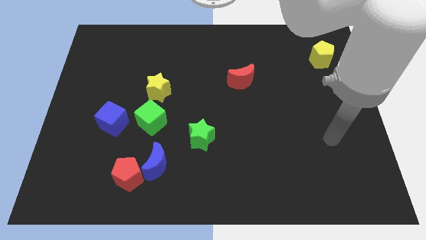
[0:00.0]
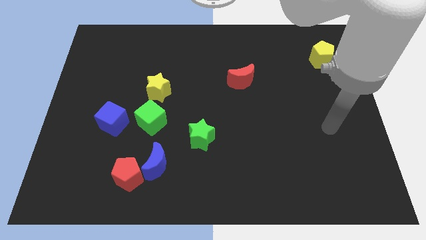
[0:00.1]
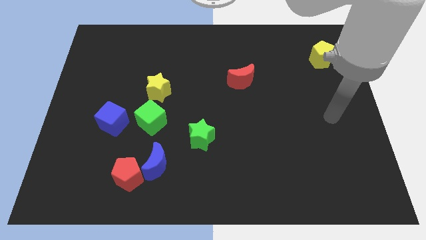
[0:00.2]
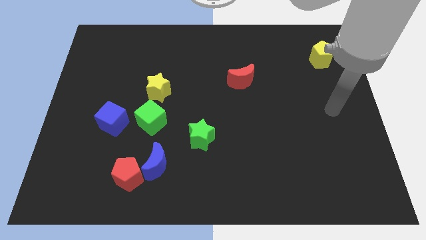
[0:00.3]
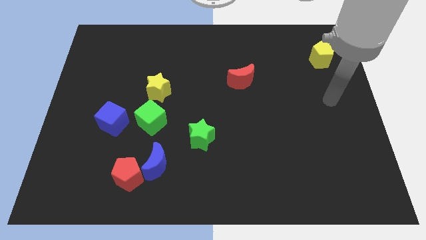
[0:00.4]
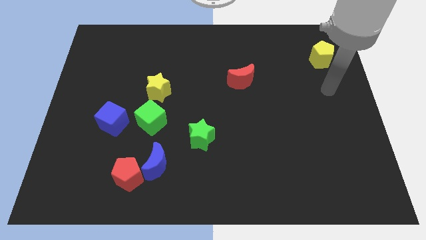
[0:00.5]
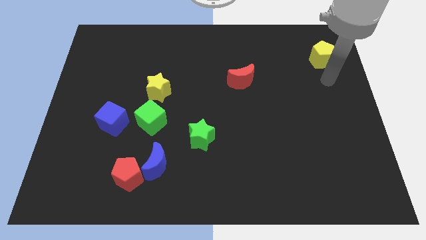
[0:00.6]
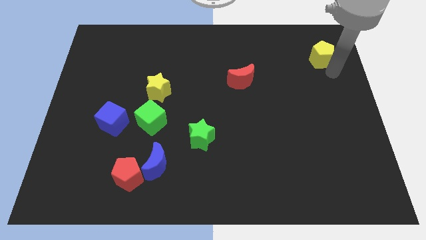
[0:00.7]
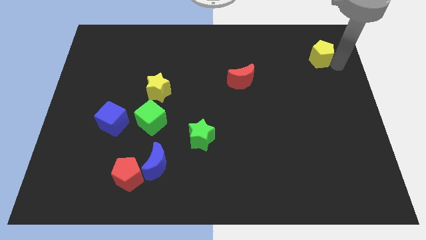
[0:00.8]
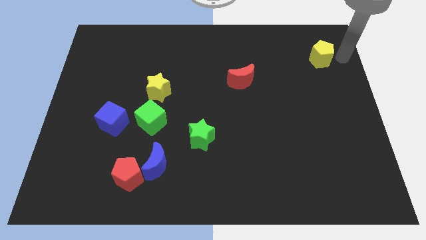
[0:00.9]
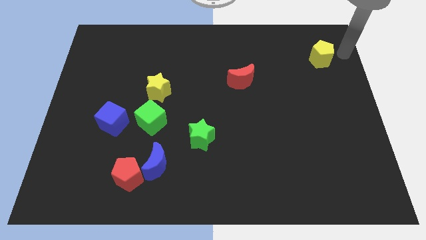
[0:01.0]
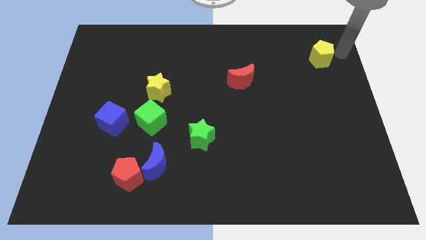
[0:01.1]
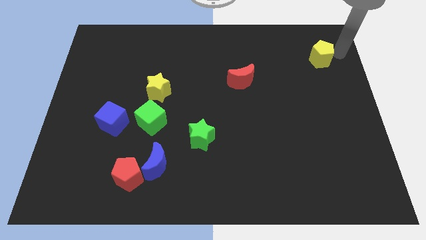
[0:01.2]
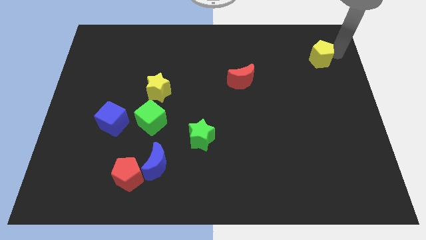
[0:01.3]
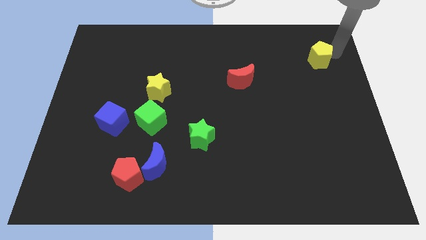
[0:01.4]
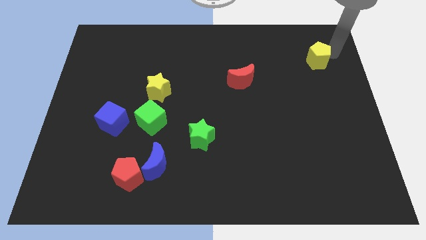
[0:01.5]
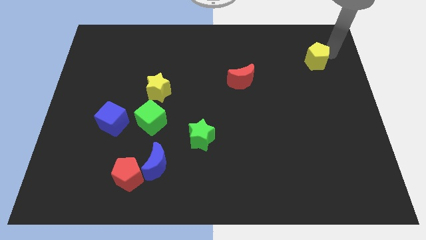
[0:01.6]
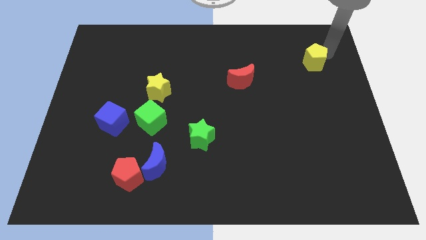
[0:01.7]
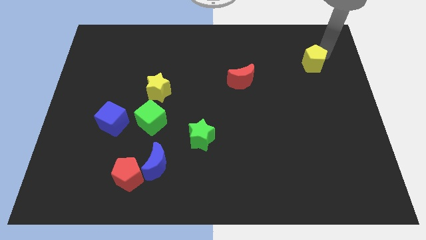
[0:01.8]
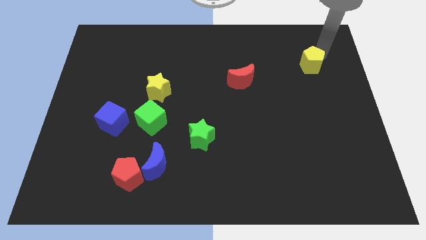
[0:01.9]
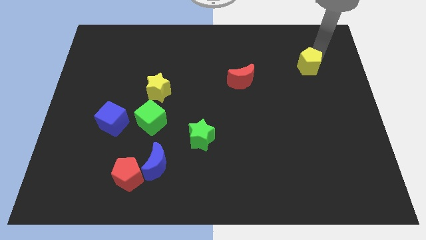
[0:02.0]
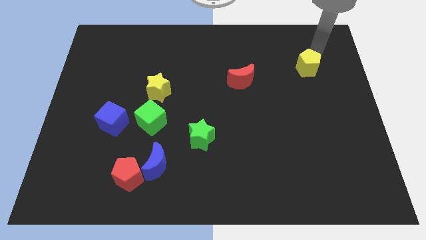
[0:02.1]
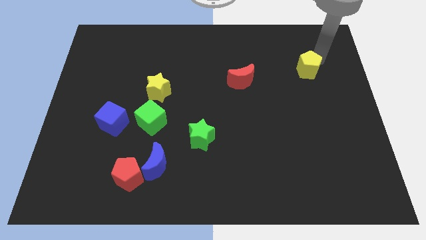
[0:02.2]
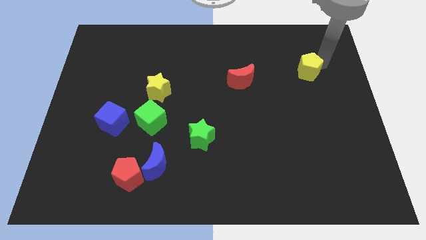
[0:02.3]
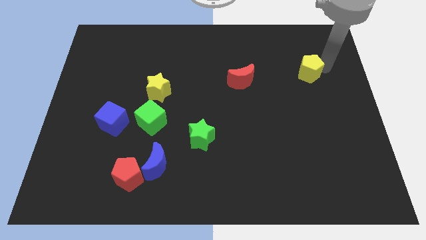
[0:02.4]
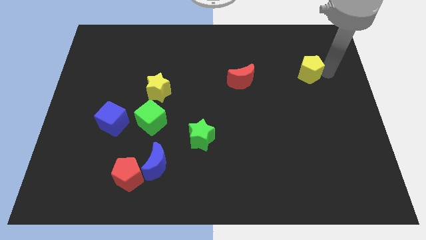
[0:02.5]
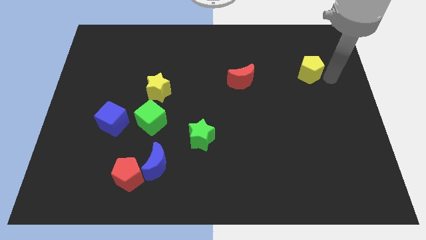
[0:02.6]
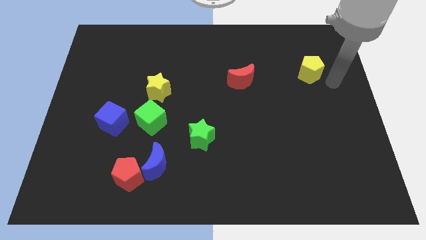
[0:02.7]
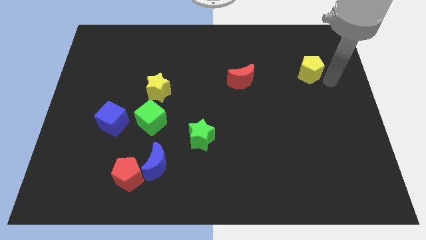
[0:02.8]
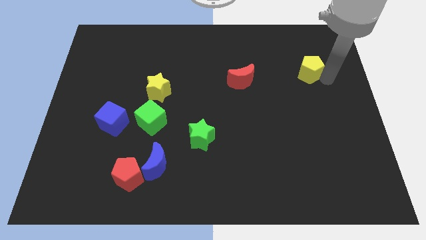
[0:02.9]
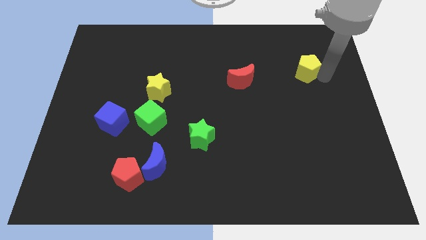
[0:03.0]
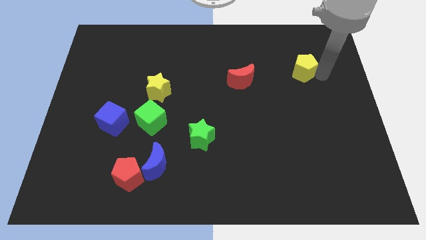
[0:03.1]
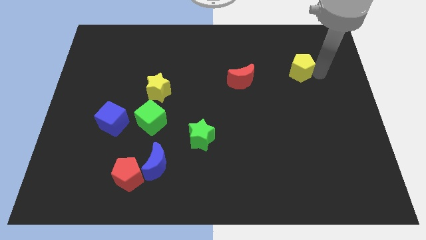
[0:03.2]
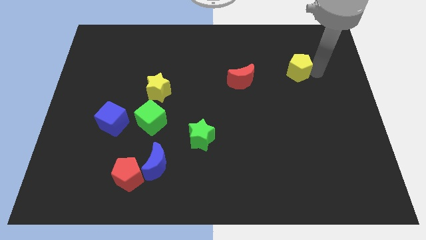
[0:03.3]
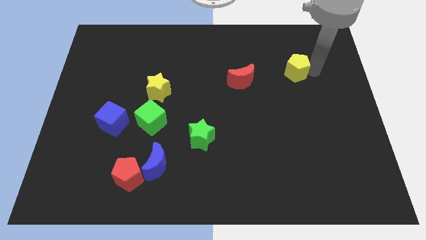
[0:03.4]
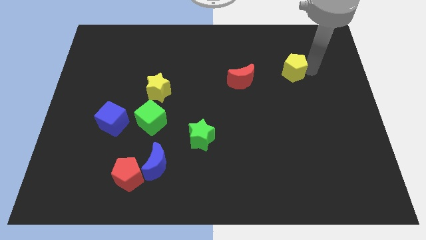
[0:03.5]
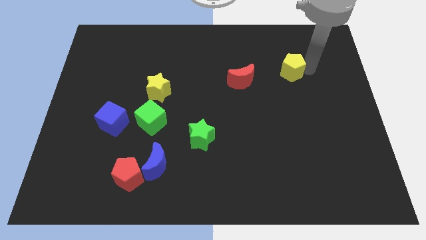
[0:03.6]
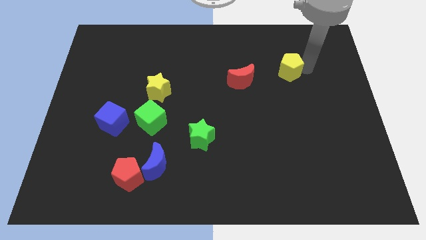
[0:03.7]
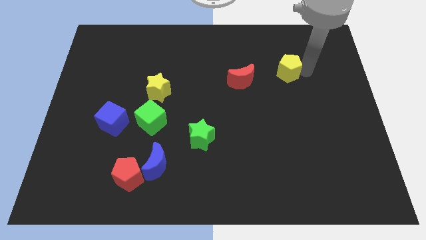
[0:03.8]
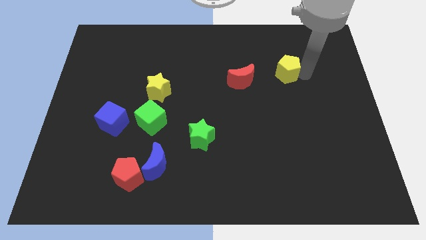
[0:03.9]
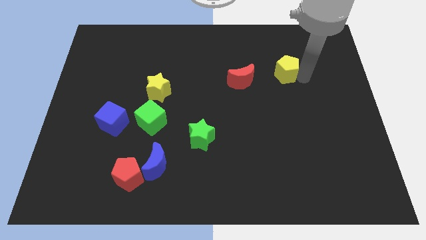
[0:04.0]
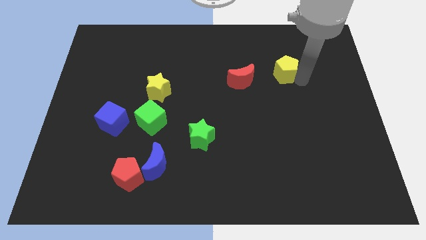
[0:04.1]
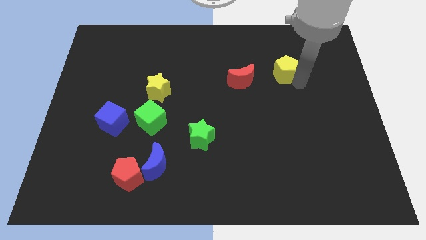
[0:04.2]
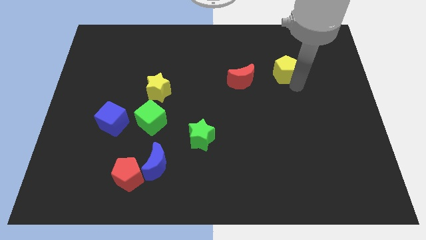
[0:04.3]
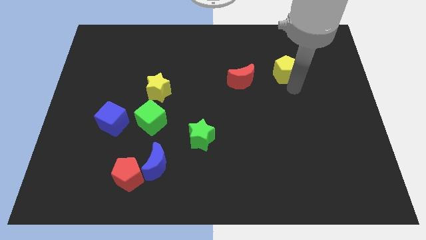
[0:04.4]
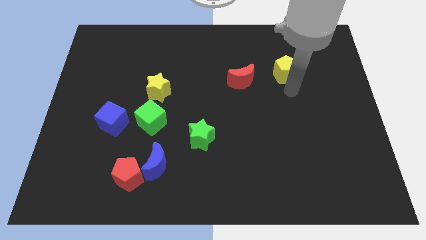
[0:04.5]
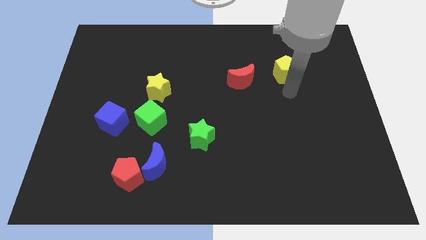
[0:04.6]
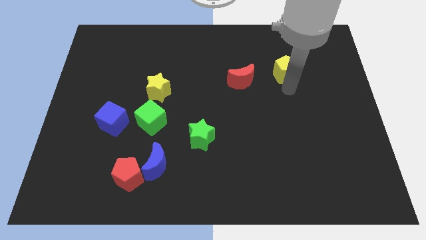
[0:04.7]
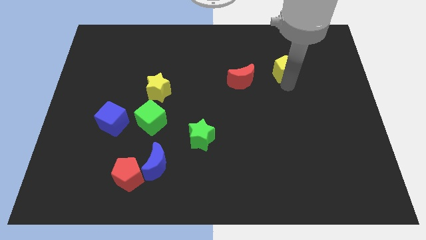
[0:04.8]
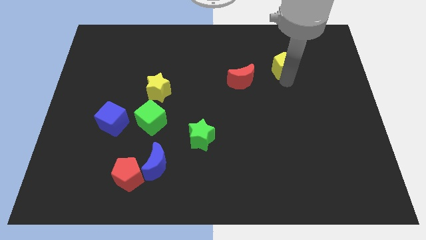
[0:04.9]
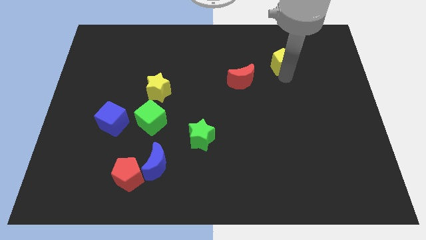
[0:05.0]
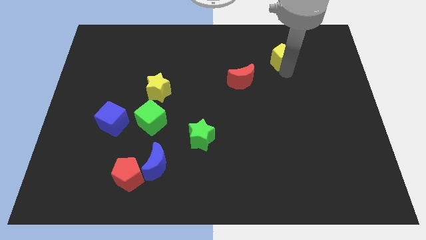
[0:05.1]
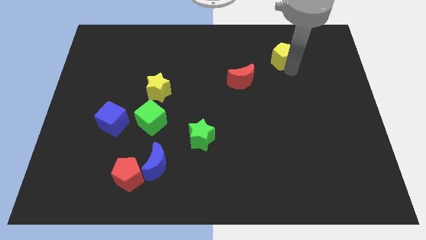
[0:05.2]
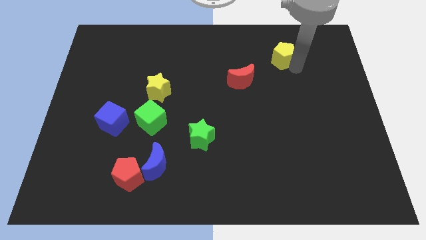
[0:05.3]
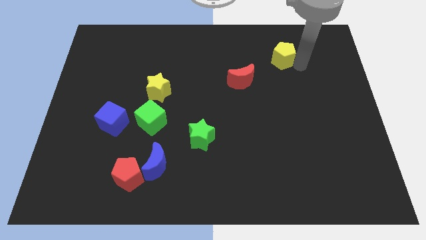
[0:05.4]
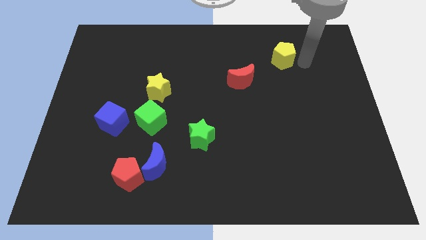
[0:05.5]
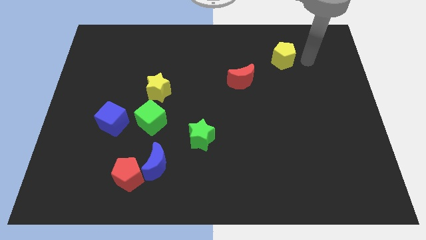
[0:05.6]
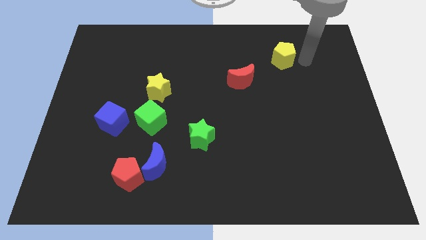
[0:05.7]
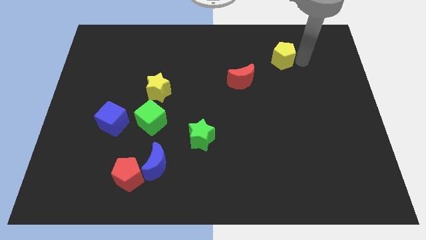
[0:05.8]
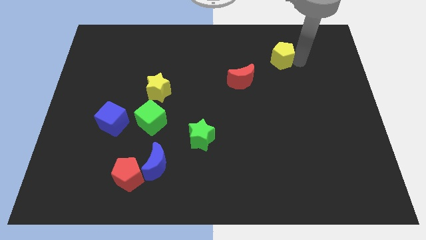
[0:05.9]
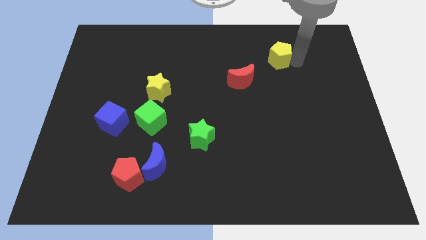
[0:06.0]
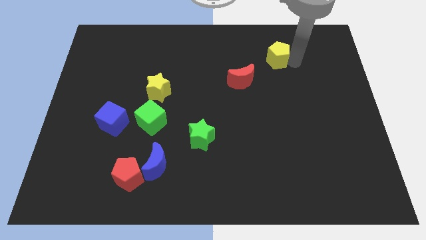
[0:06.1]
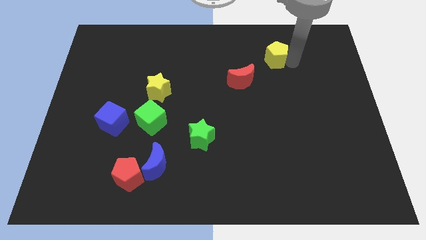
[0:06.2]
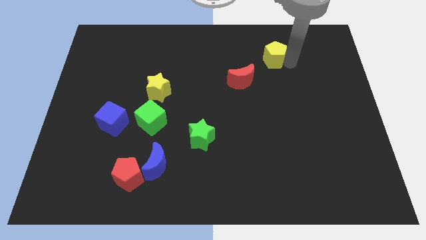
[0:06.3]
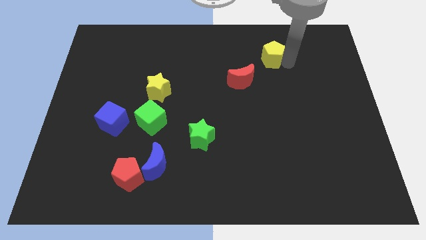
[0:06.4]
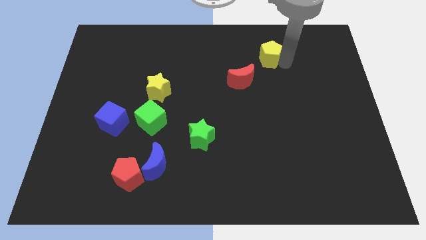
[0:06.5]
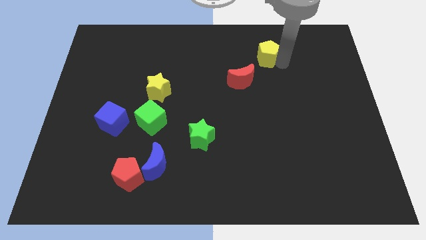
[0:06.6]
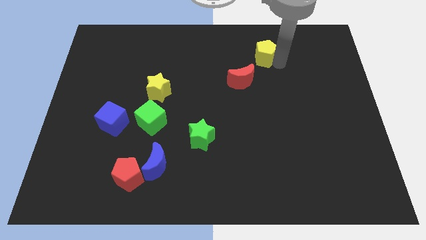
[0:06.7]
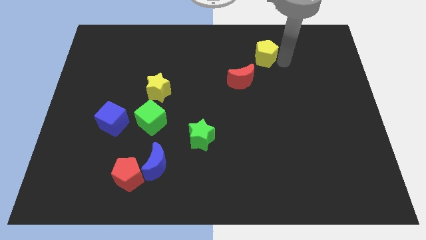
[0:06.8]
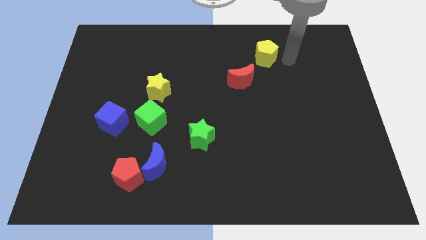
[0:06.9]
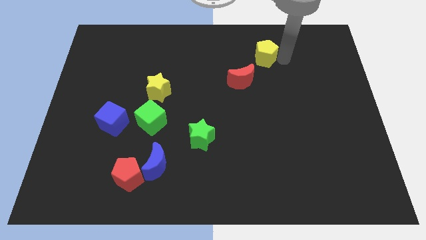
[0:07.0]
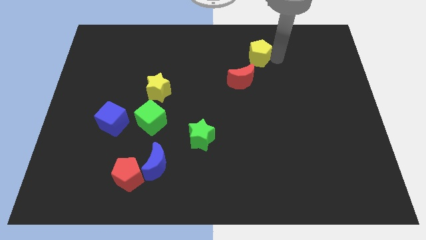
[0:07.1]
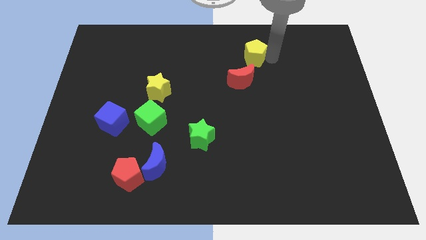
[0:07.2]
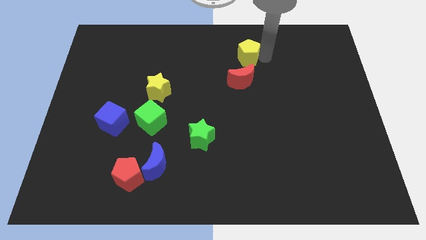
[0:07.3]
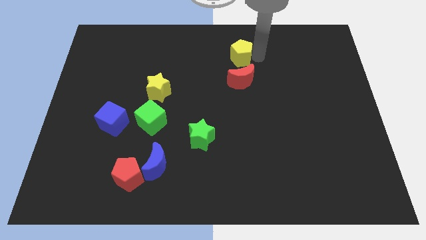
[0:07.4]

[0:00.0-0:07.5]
slide the yellow pentagon to the left

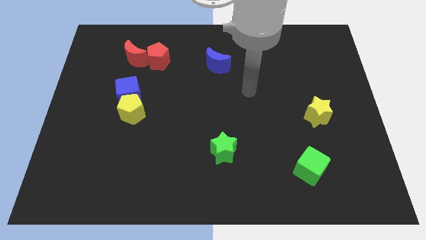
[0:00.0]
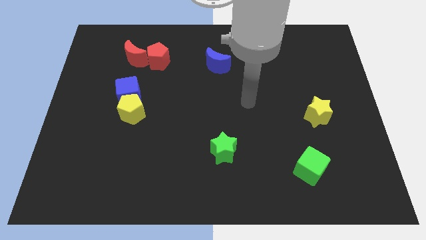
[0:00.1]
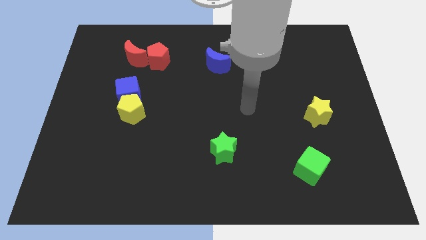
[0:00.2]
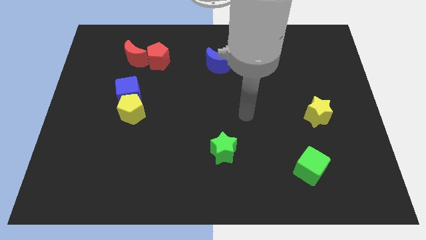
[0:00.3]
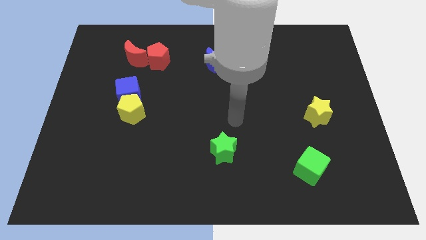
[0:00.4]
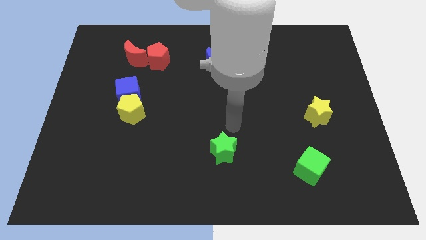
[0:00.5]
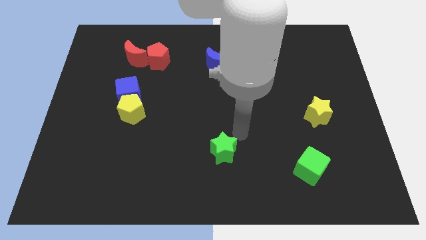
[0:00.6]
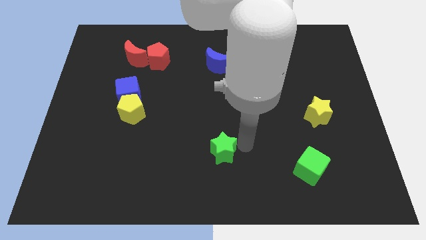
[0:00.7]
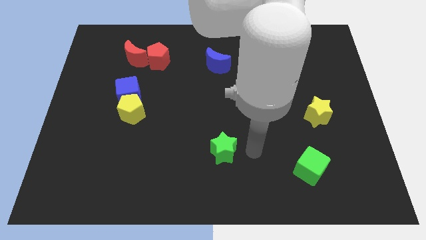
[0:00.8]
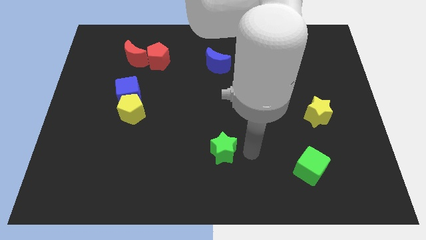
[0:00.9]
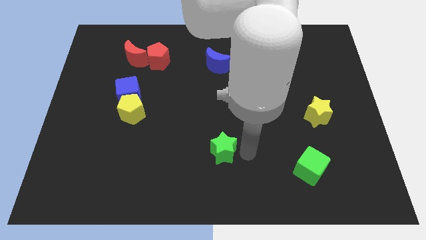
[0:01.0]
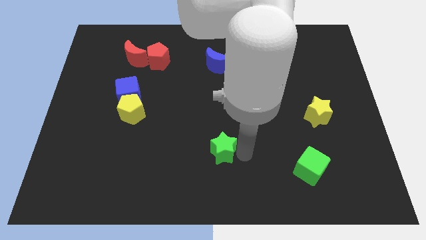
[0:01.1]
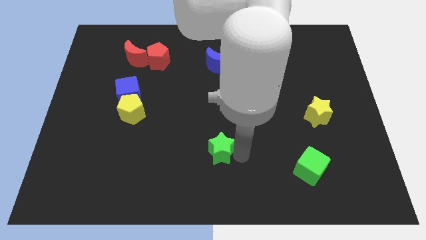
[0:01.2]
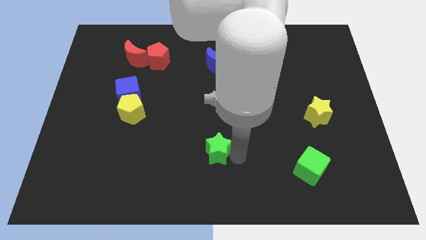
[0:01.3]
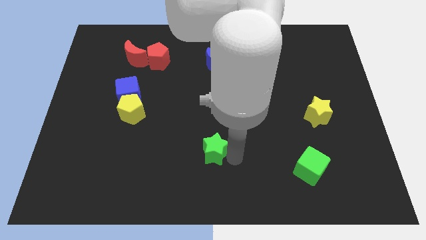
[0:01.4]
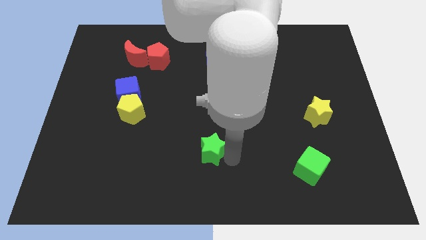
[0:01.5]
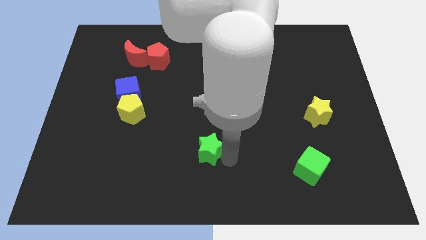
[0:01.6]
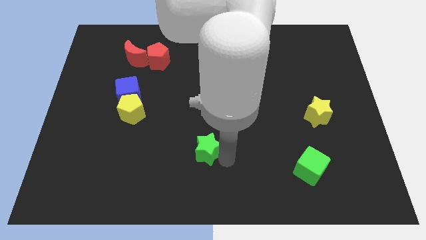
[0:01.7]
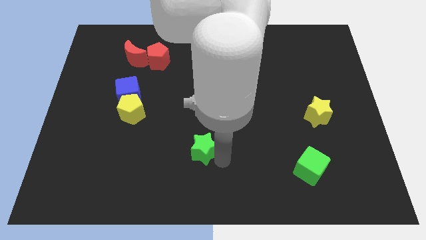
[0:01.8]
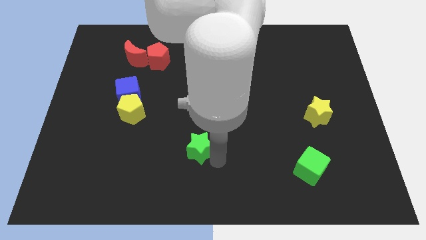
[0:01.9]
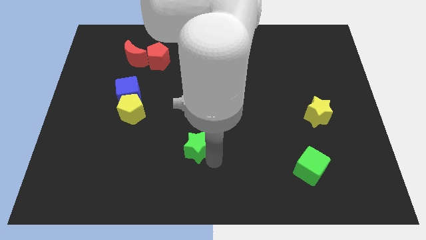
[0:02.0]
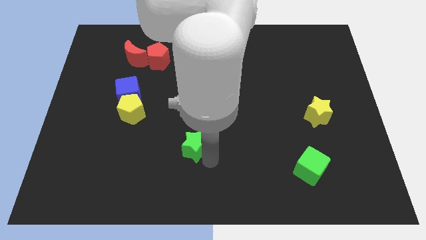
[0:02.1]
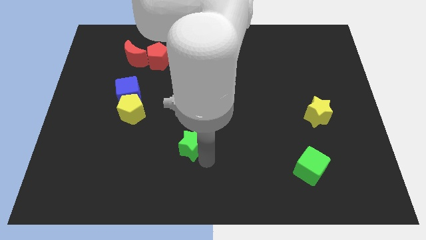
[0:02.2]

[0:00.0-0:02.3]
slide the green star left a little bit
